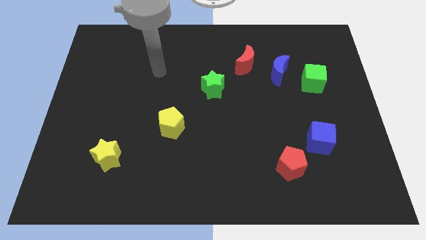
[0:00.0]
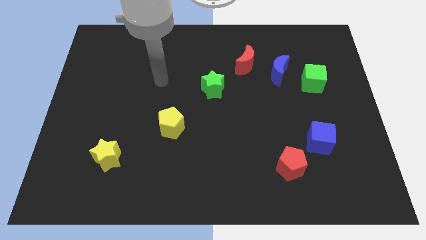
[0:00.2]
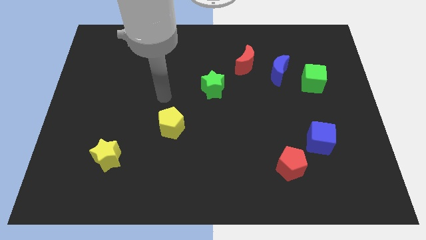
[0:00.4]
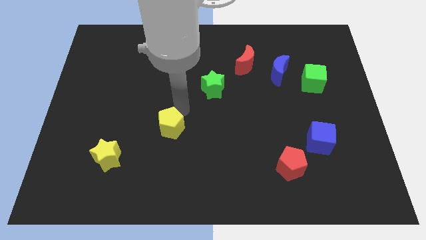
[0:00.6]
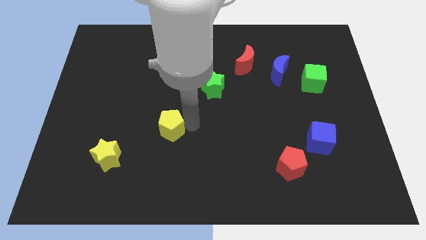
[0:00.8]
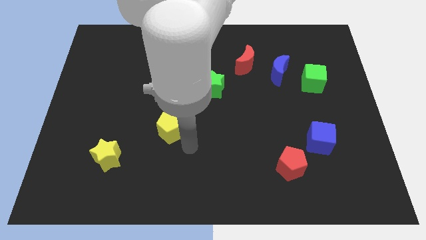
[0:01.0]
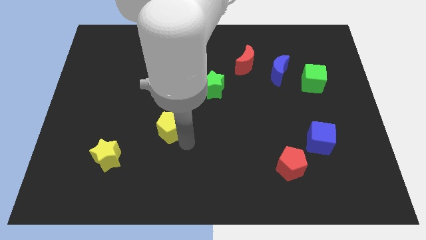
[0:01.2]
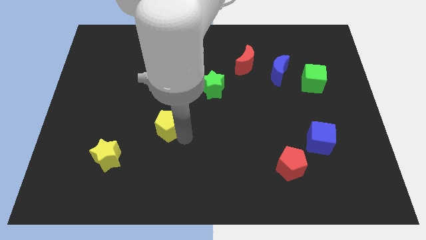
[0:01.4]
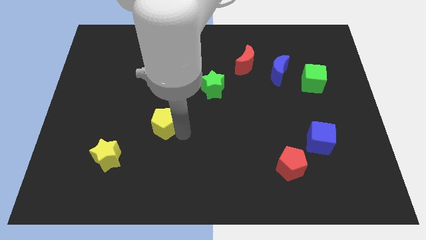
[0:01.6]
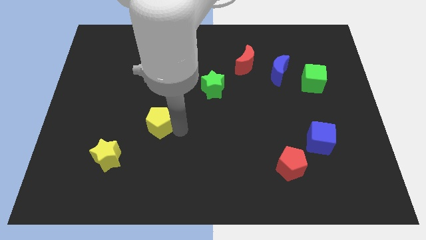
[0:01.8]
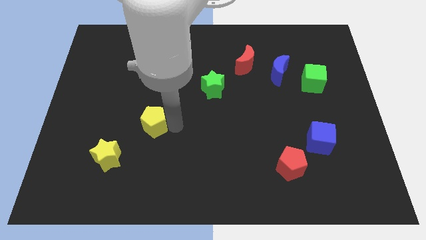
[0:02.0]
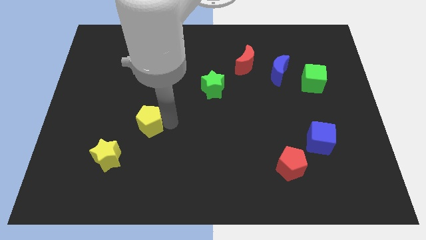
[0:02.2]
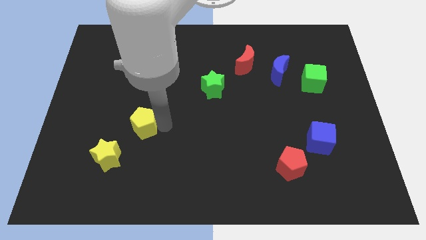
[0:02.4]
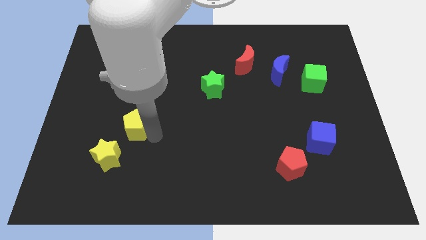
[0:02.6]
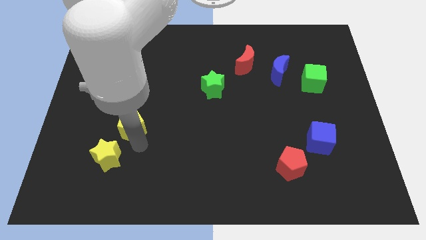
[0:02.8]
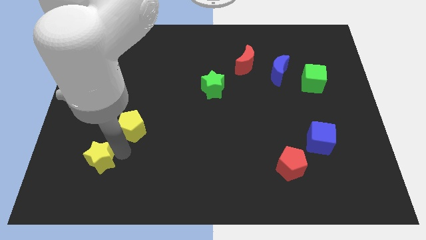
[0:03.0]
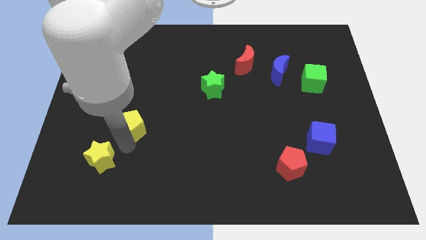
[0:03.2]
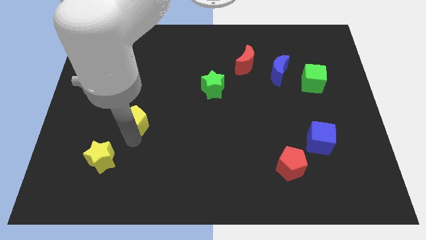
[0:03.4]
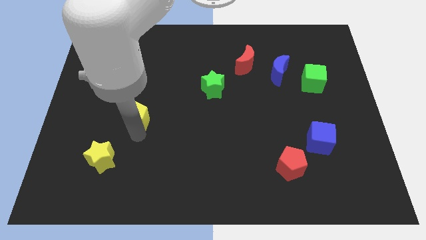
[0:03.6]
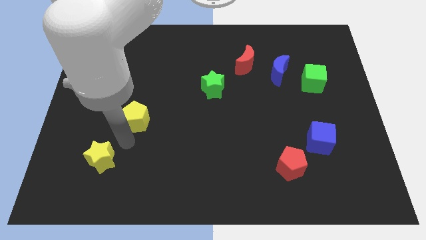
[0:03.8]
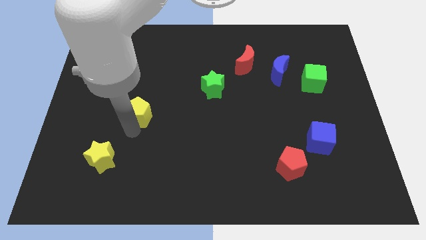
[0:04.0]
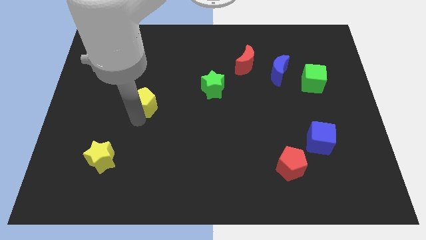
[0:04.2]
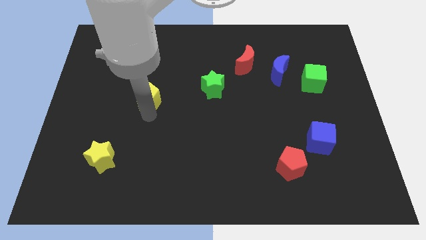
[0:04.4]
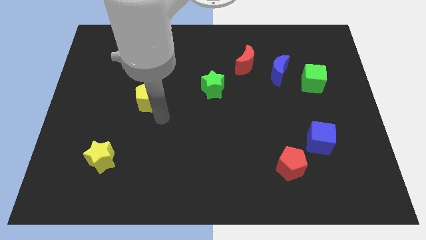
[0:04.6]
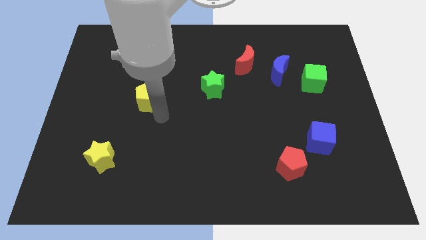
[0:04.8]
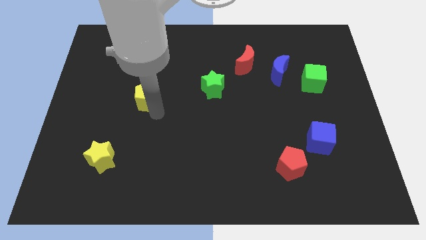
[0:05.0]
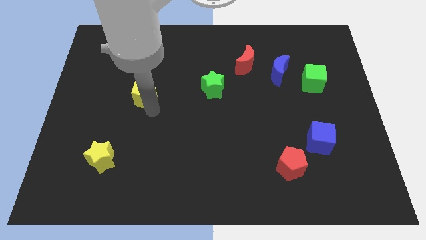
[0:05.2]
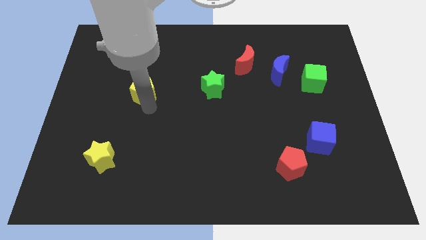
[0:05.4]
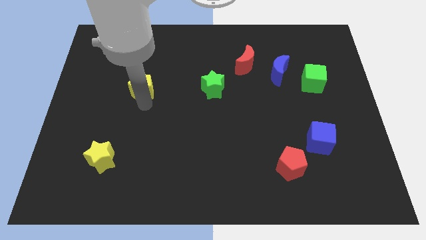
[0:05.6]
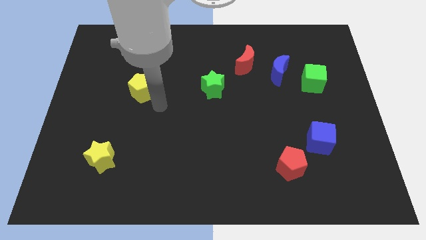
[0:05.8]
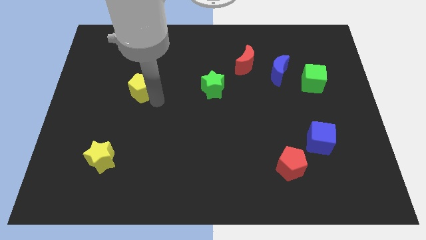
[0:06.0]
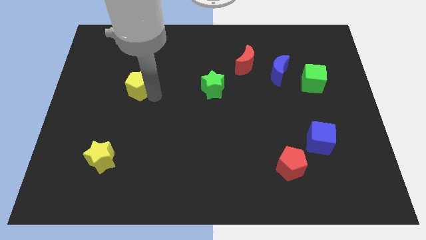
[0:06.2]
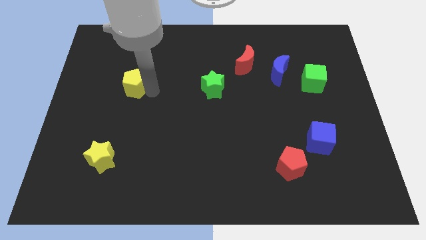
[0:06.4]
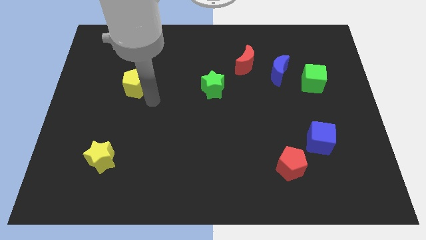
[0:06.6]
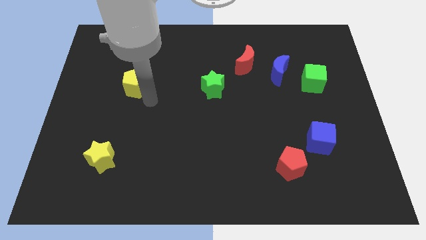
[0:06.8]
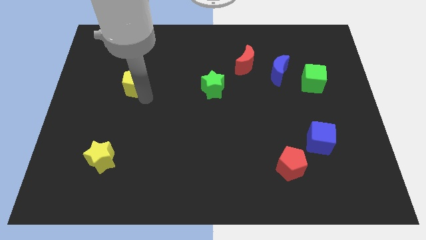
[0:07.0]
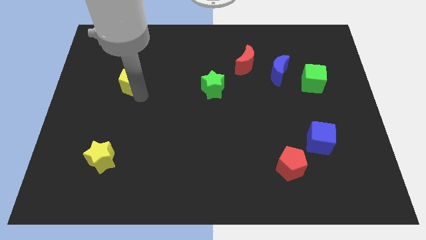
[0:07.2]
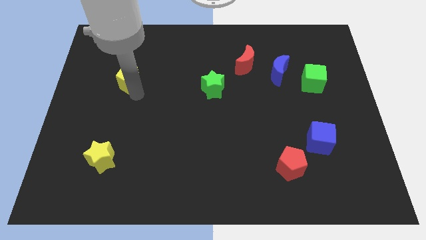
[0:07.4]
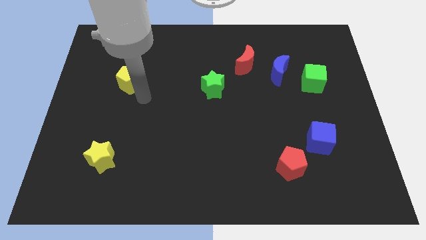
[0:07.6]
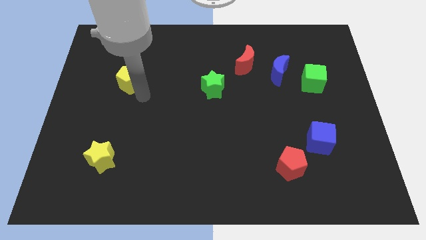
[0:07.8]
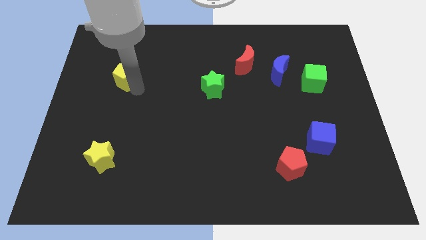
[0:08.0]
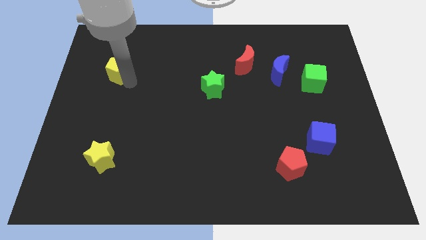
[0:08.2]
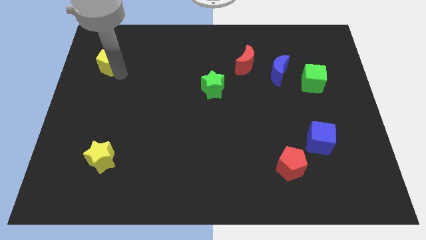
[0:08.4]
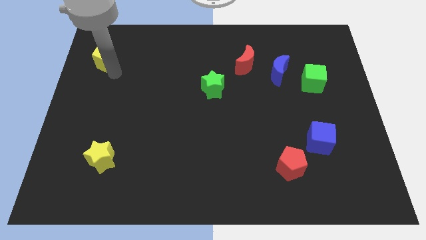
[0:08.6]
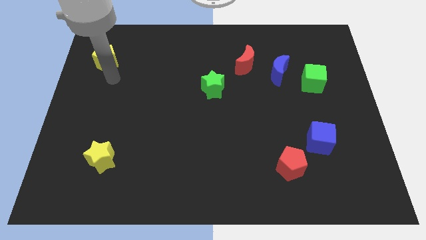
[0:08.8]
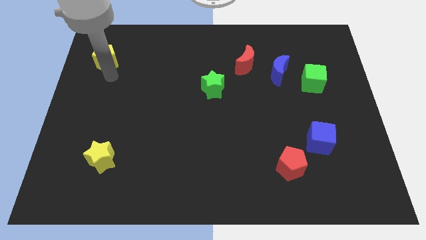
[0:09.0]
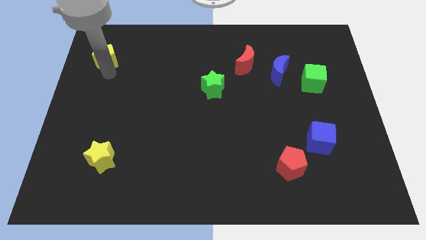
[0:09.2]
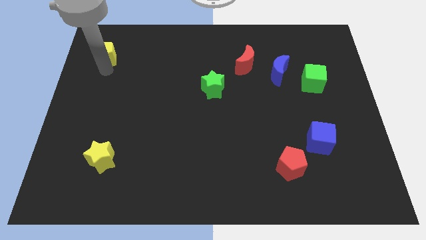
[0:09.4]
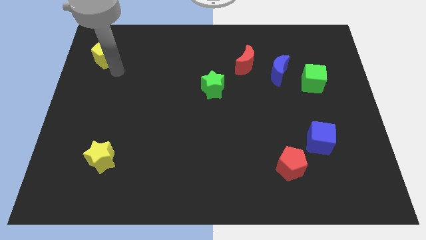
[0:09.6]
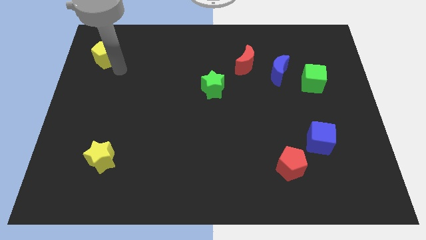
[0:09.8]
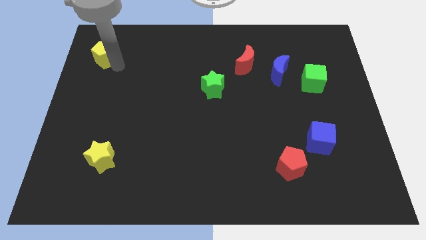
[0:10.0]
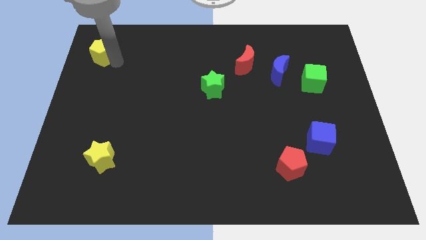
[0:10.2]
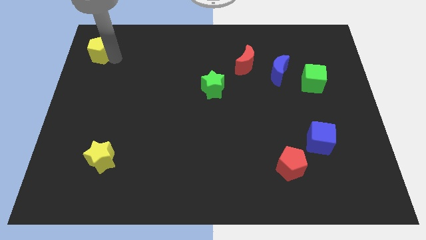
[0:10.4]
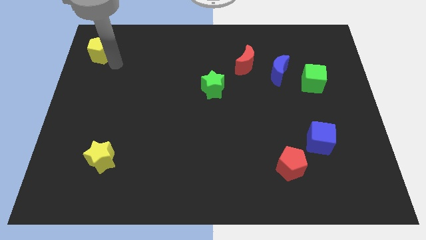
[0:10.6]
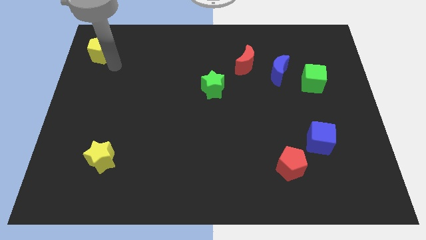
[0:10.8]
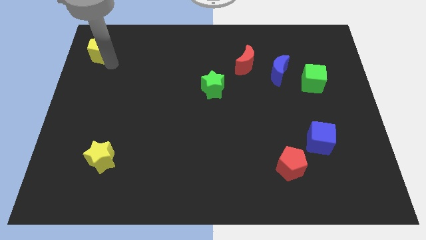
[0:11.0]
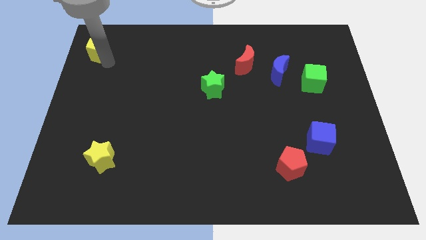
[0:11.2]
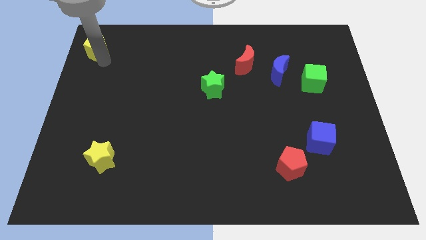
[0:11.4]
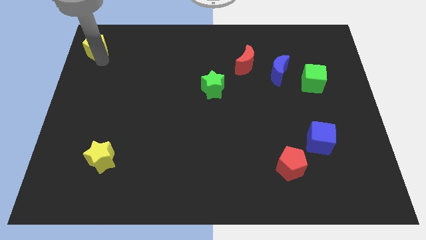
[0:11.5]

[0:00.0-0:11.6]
move the yellow pentagon to the top left

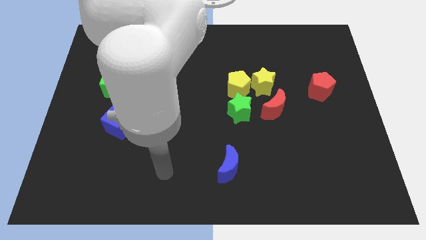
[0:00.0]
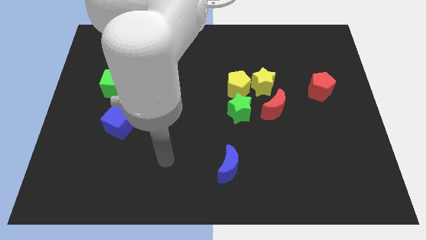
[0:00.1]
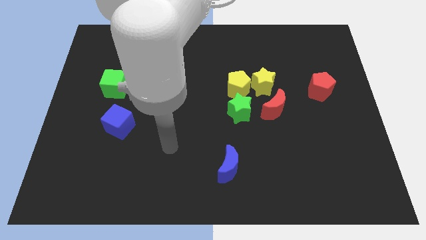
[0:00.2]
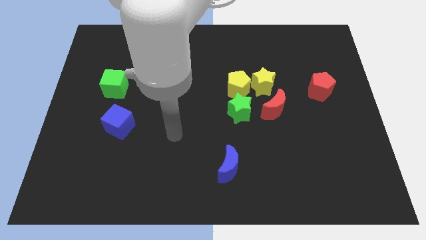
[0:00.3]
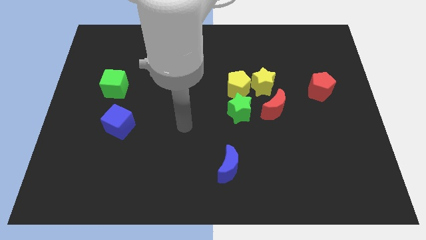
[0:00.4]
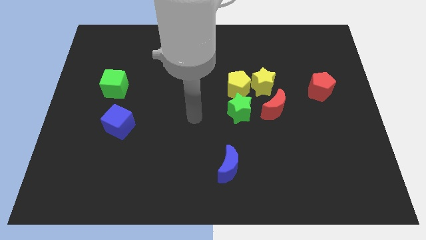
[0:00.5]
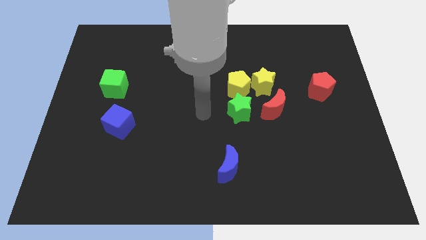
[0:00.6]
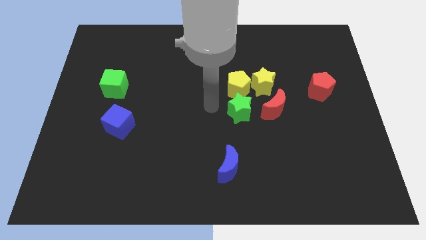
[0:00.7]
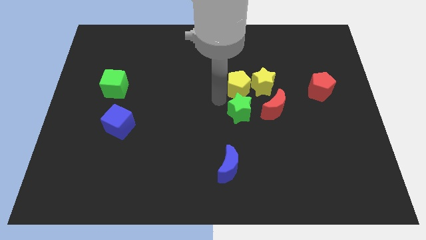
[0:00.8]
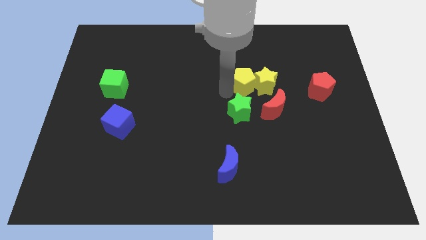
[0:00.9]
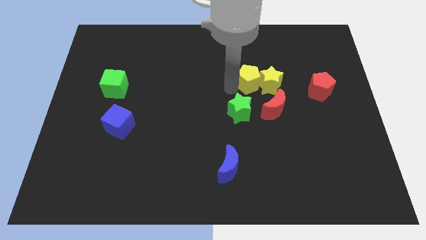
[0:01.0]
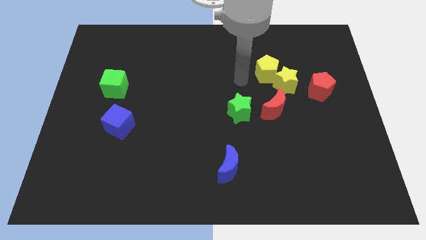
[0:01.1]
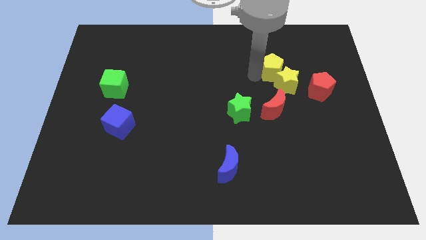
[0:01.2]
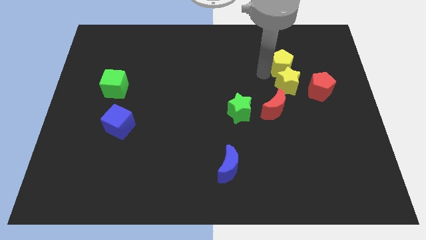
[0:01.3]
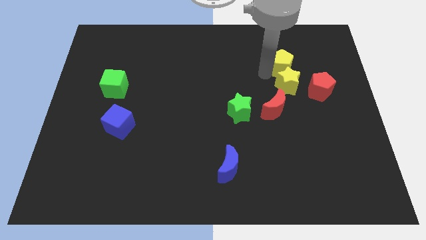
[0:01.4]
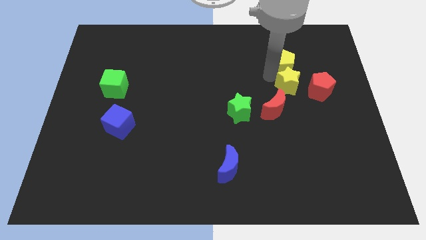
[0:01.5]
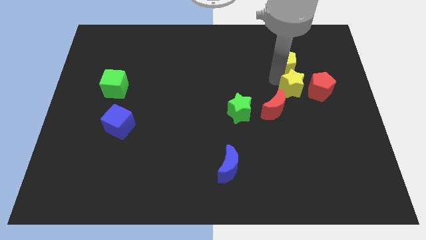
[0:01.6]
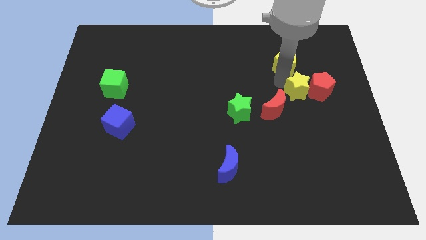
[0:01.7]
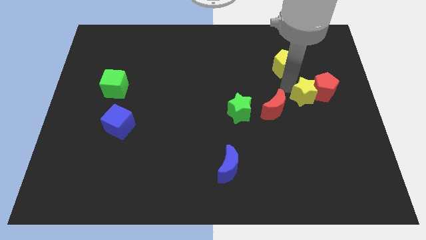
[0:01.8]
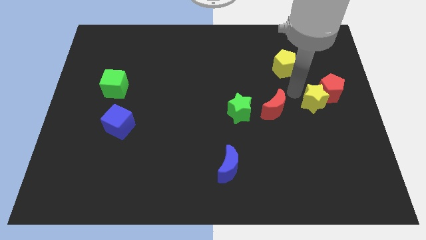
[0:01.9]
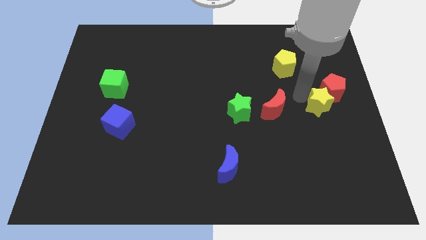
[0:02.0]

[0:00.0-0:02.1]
move the yellow star to the right side of the board
